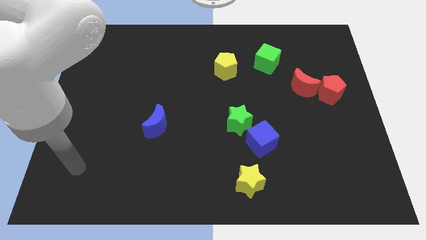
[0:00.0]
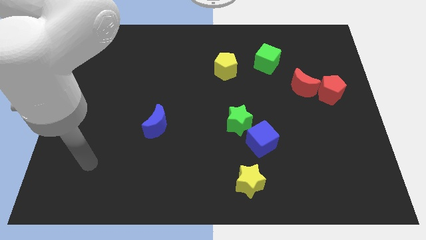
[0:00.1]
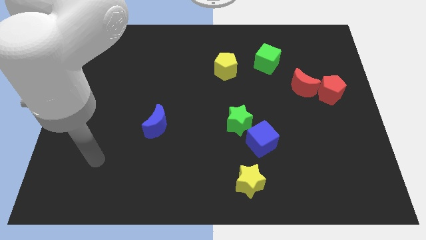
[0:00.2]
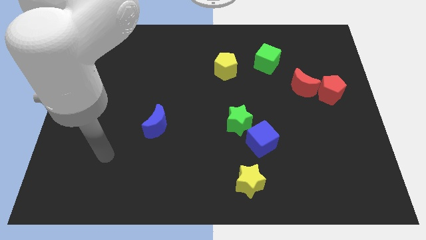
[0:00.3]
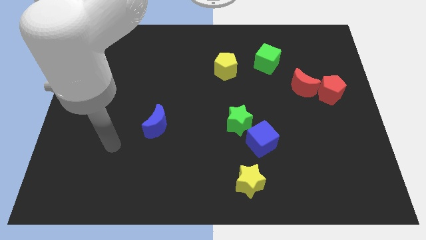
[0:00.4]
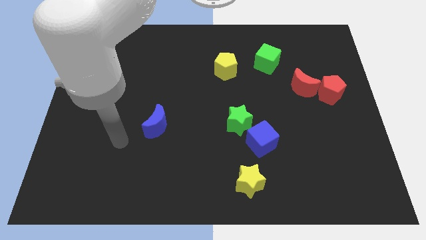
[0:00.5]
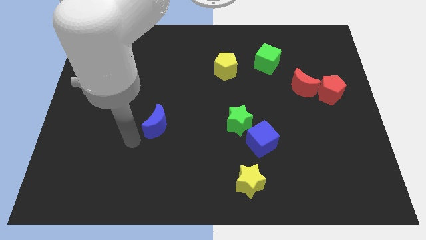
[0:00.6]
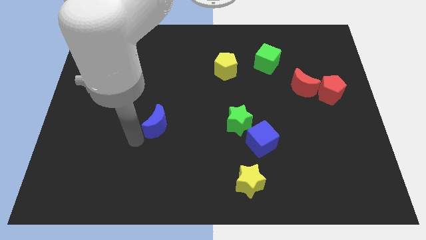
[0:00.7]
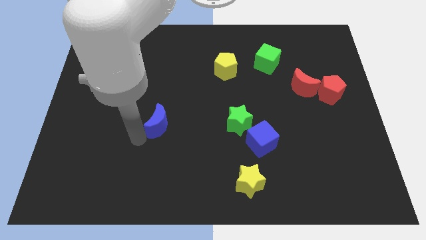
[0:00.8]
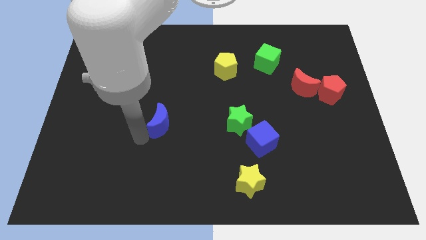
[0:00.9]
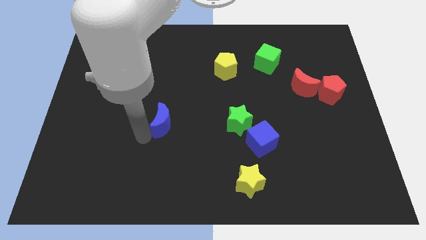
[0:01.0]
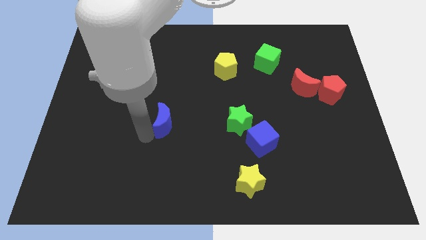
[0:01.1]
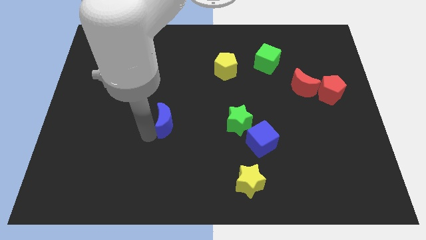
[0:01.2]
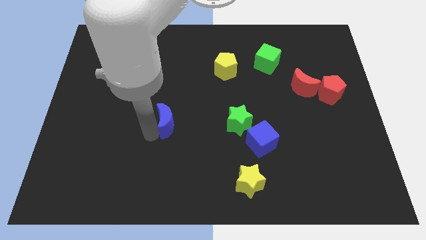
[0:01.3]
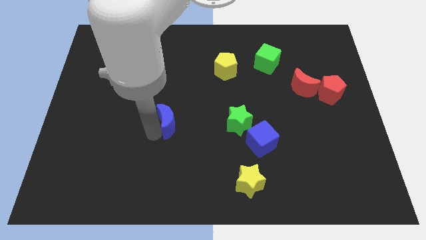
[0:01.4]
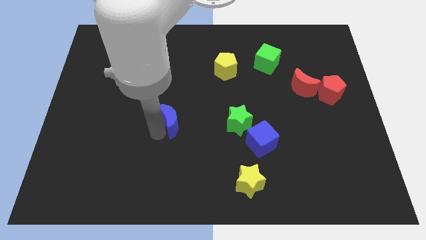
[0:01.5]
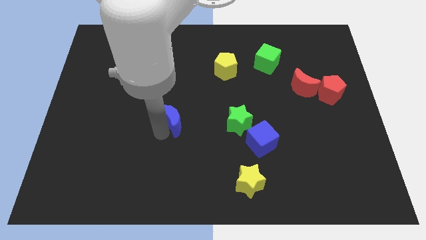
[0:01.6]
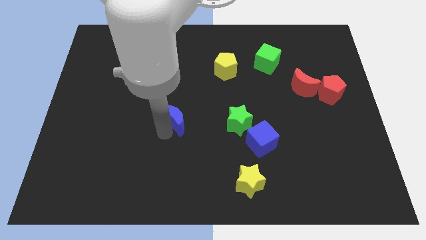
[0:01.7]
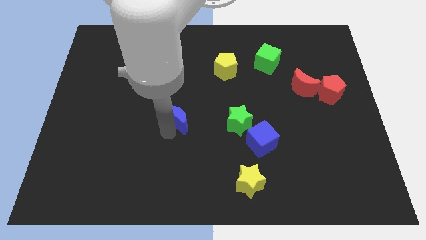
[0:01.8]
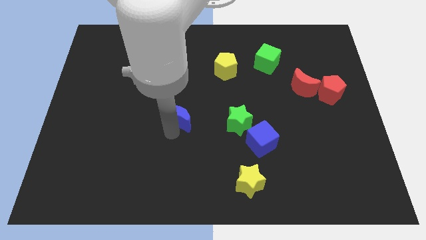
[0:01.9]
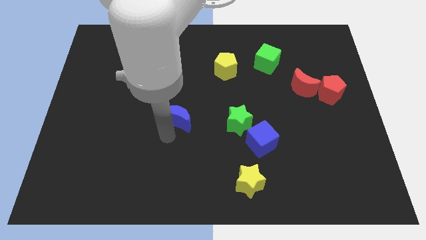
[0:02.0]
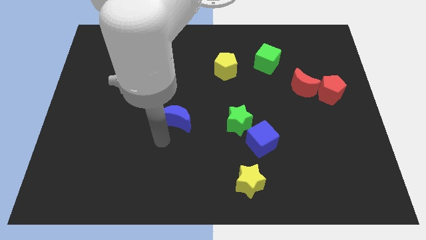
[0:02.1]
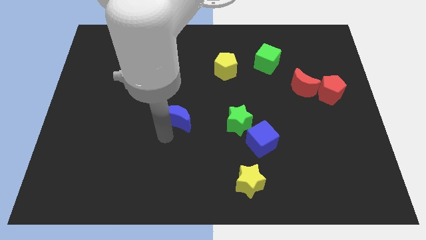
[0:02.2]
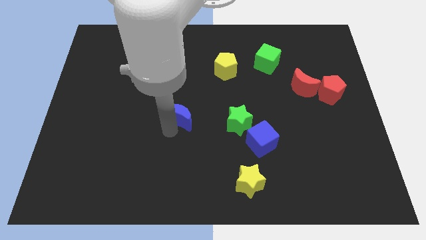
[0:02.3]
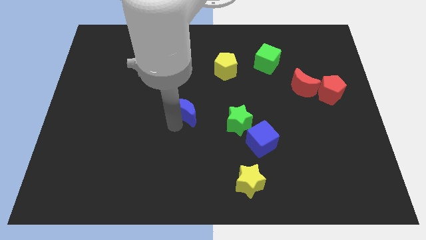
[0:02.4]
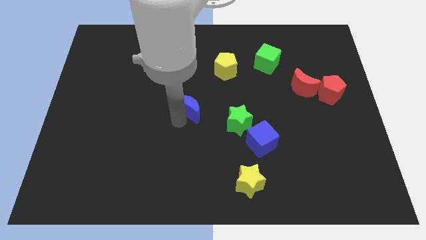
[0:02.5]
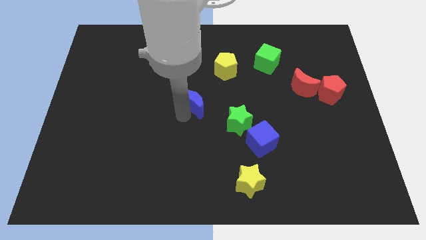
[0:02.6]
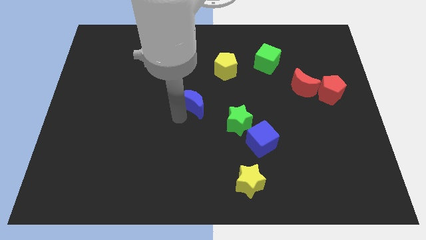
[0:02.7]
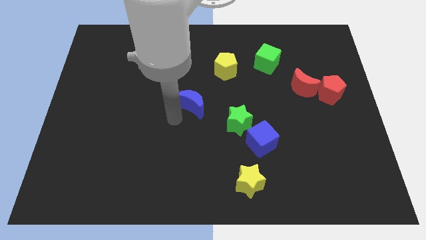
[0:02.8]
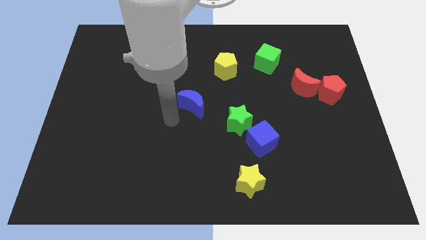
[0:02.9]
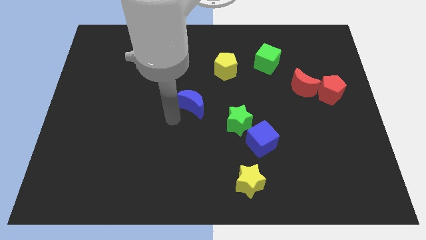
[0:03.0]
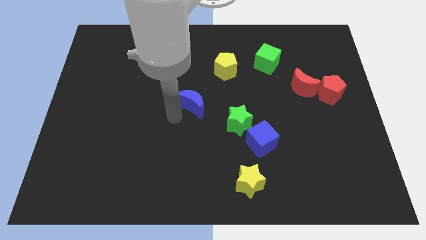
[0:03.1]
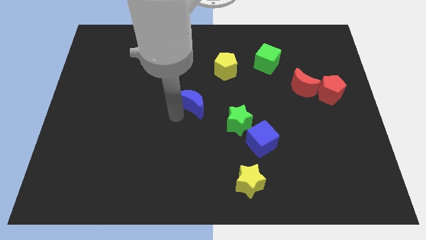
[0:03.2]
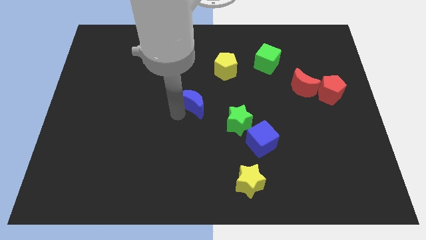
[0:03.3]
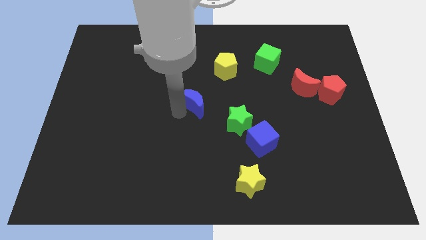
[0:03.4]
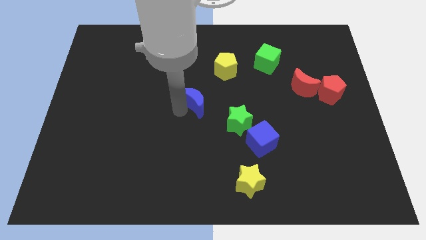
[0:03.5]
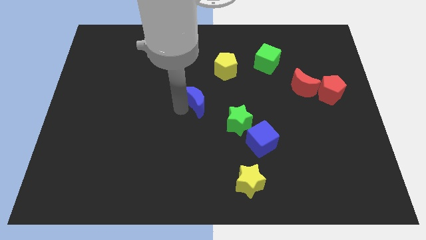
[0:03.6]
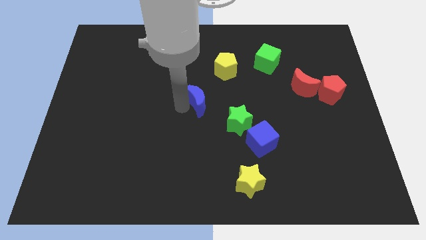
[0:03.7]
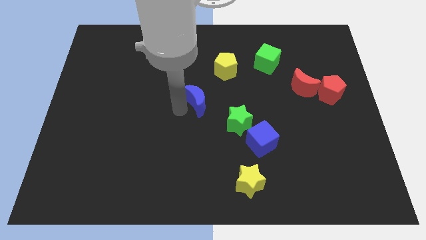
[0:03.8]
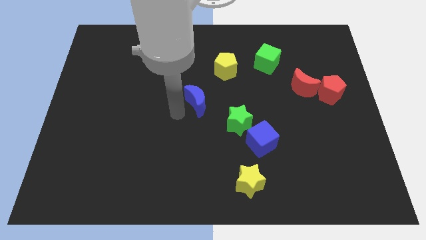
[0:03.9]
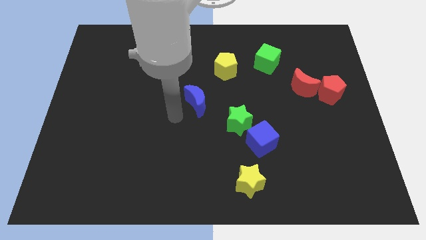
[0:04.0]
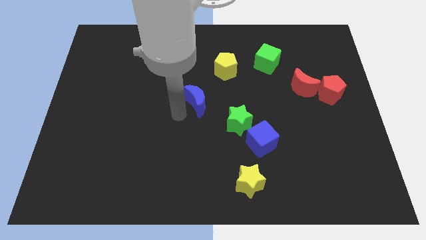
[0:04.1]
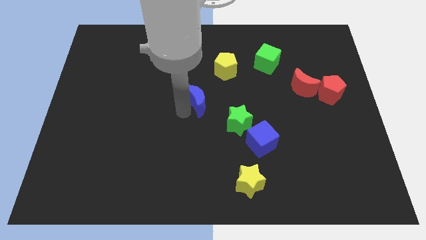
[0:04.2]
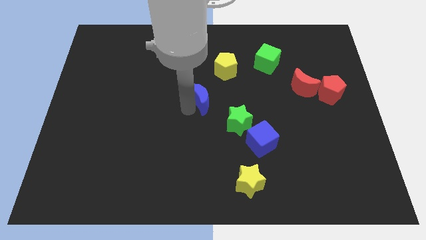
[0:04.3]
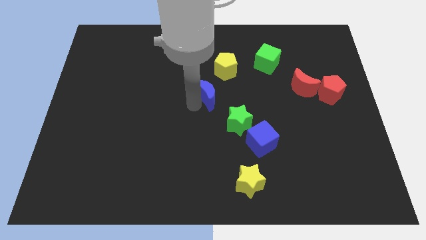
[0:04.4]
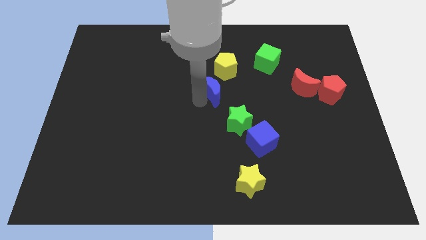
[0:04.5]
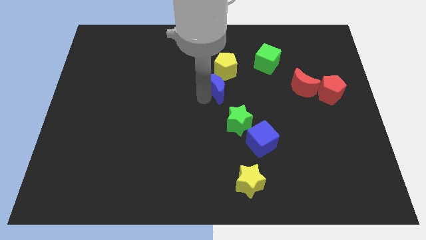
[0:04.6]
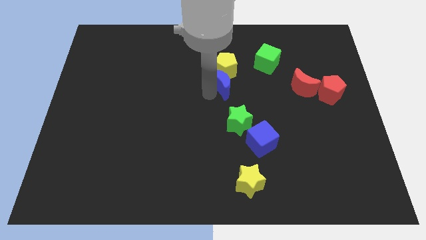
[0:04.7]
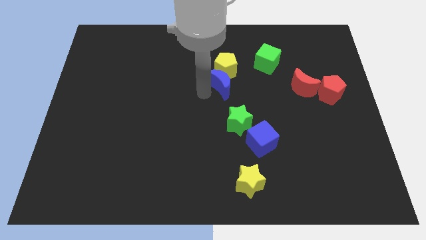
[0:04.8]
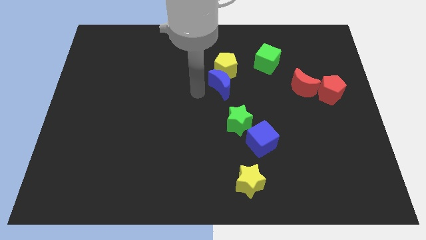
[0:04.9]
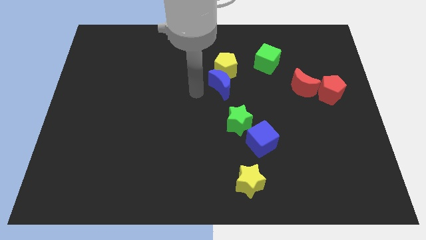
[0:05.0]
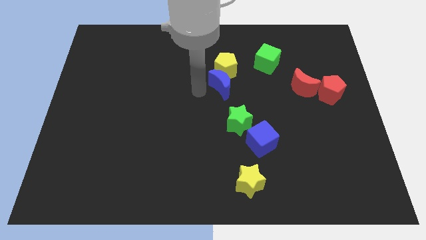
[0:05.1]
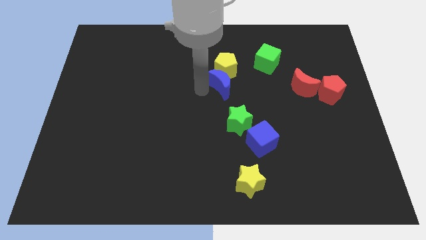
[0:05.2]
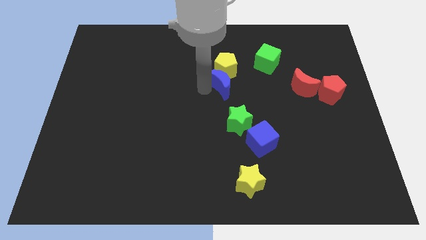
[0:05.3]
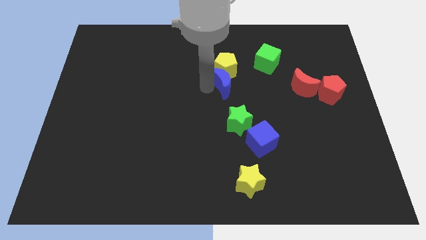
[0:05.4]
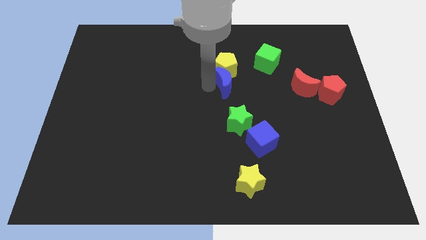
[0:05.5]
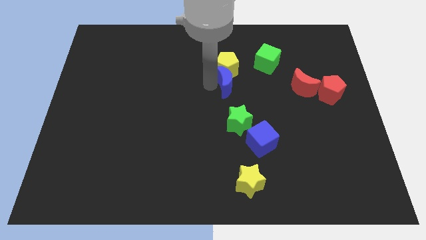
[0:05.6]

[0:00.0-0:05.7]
move the blue moon upwards and right diagonally

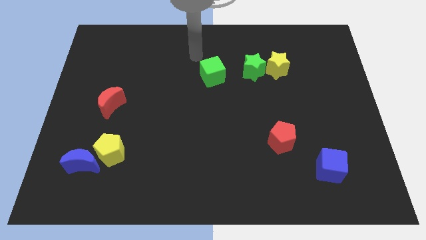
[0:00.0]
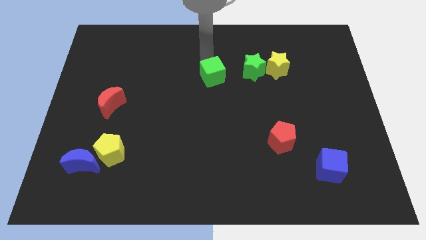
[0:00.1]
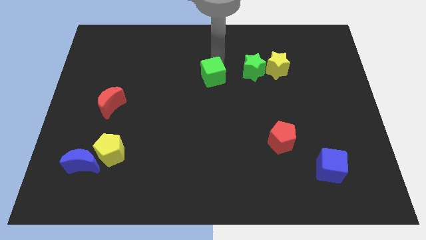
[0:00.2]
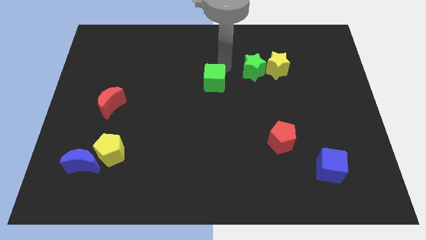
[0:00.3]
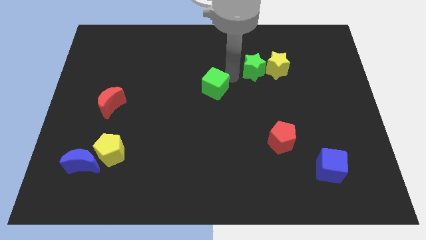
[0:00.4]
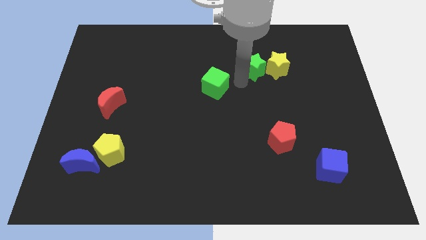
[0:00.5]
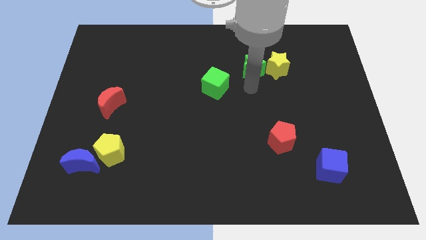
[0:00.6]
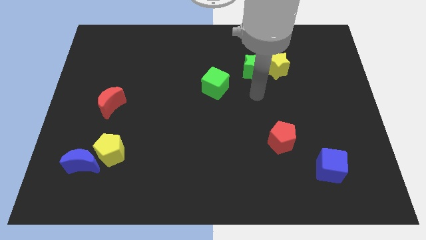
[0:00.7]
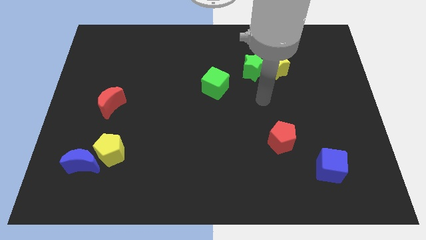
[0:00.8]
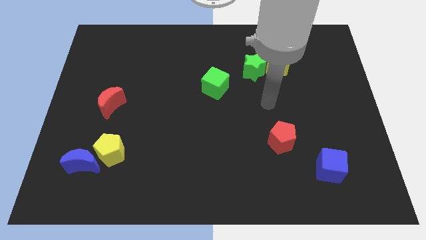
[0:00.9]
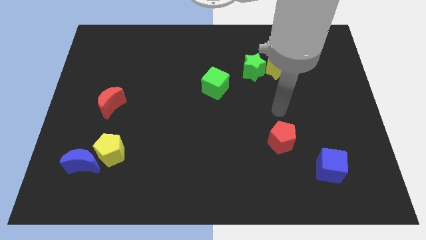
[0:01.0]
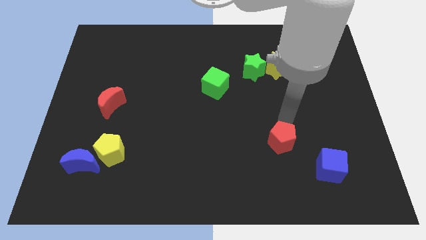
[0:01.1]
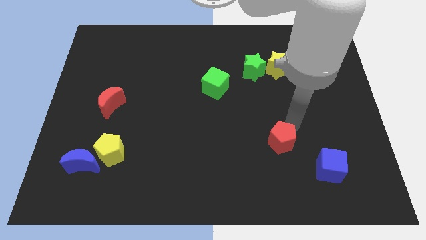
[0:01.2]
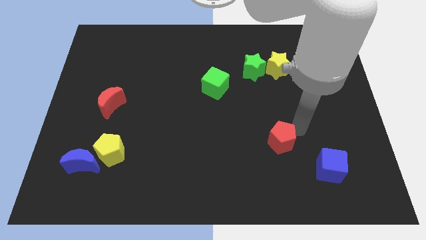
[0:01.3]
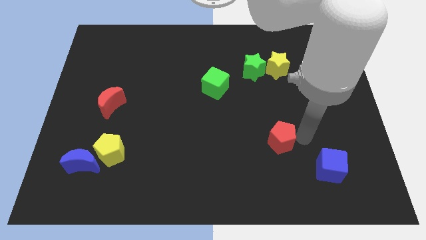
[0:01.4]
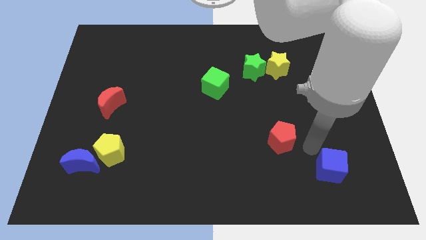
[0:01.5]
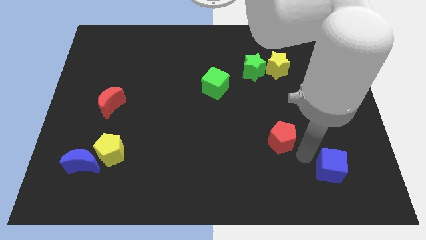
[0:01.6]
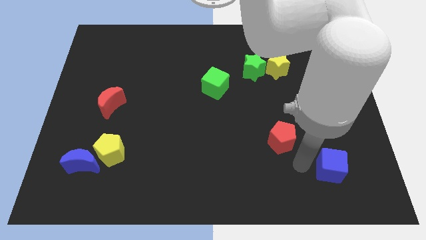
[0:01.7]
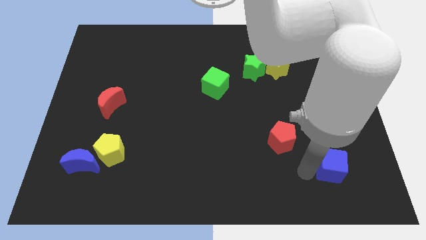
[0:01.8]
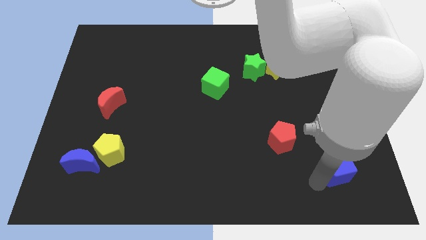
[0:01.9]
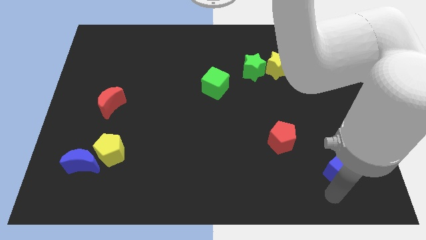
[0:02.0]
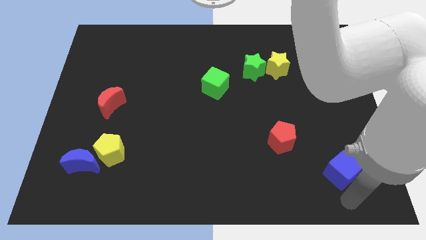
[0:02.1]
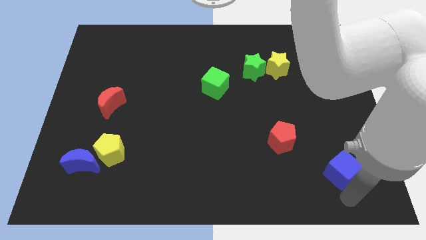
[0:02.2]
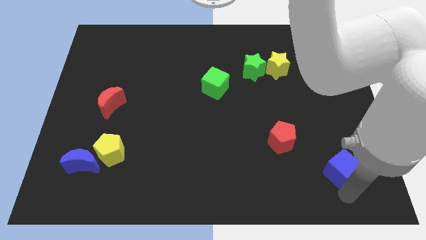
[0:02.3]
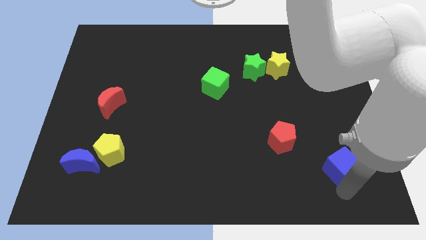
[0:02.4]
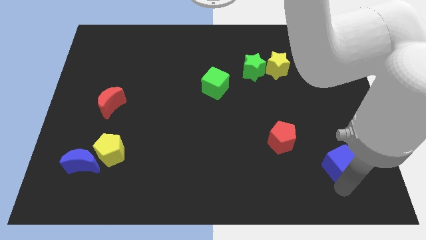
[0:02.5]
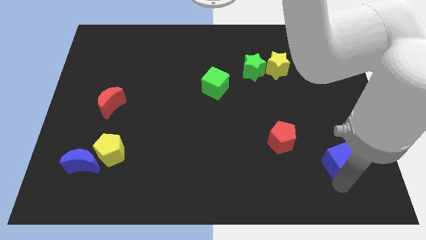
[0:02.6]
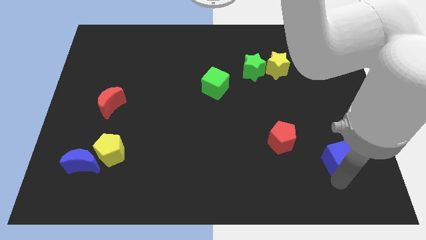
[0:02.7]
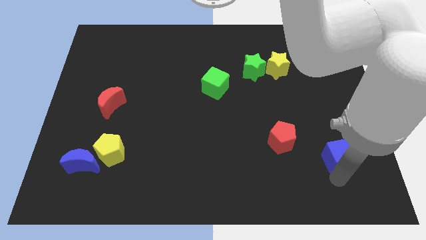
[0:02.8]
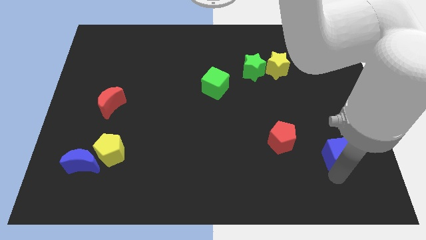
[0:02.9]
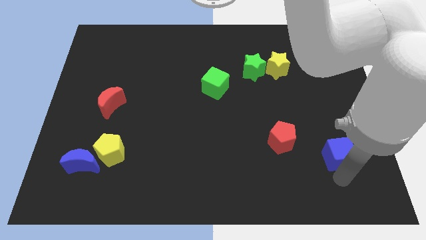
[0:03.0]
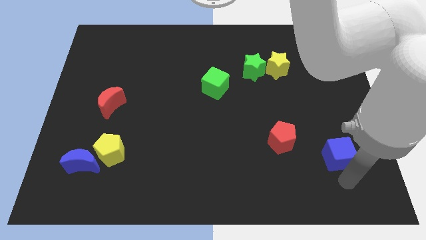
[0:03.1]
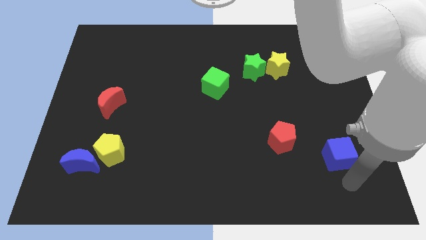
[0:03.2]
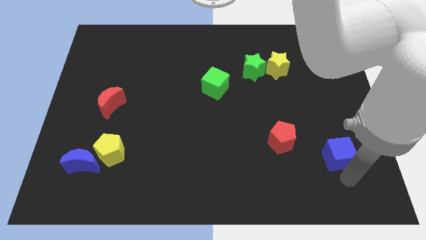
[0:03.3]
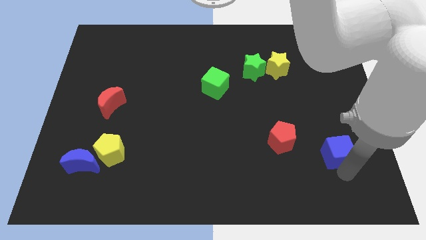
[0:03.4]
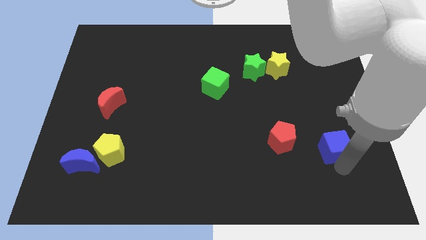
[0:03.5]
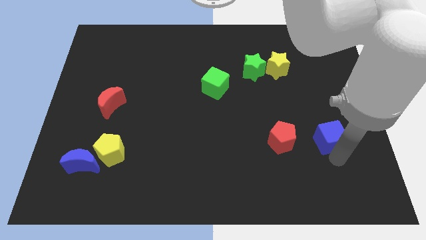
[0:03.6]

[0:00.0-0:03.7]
slide the blue cube upwards slightly
